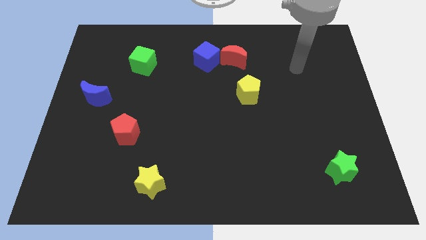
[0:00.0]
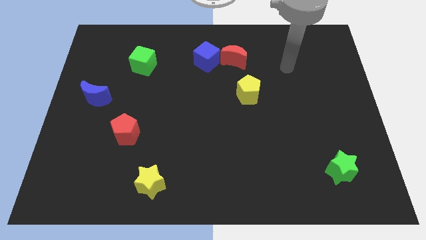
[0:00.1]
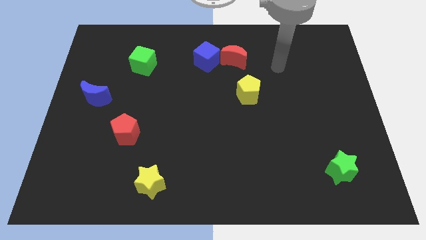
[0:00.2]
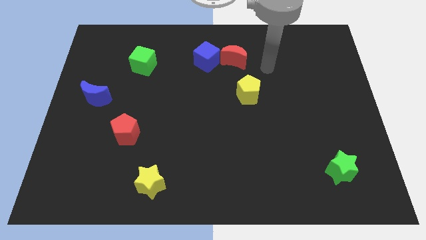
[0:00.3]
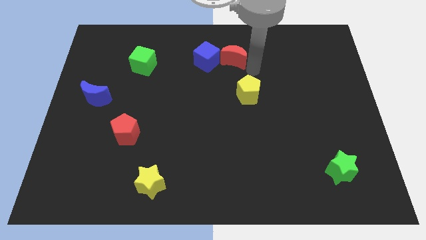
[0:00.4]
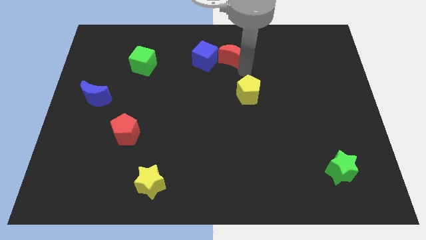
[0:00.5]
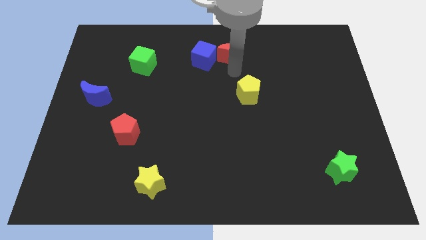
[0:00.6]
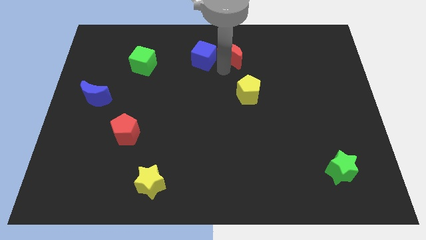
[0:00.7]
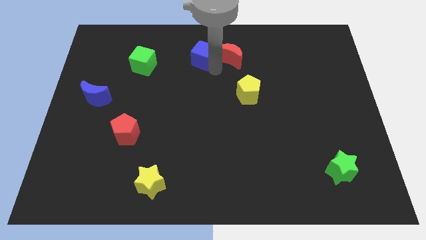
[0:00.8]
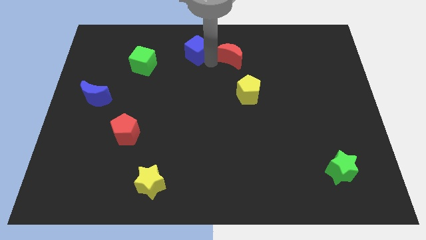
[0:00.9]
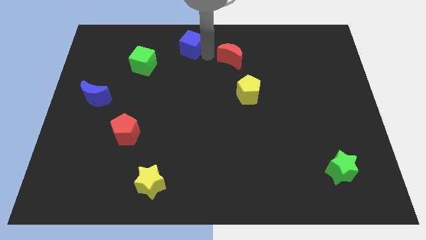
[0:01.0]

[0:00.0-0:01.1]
pull the red moon apart from the blue cube

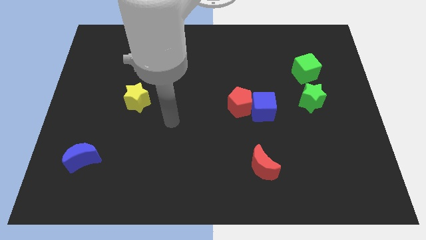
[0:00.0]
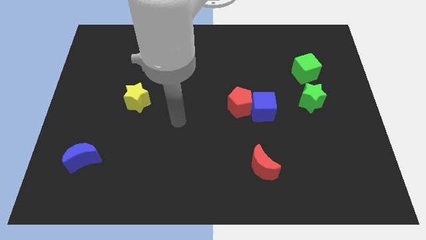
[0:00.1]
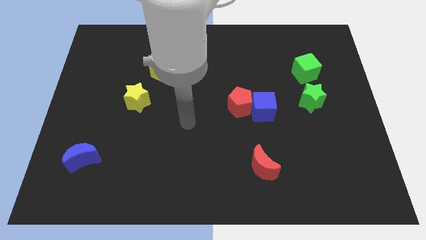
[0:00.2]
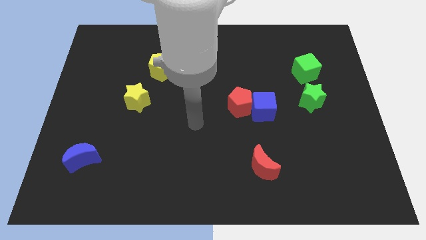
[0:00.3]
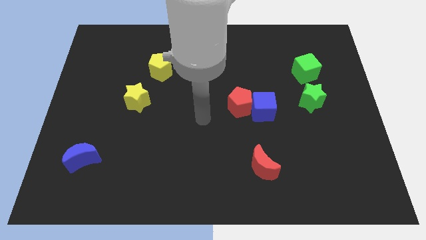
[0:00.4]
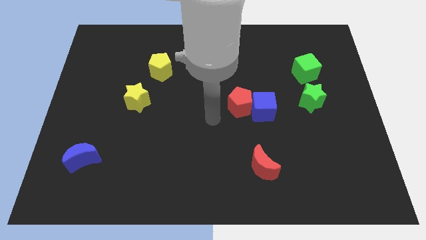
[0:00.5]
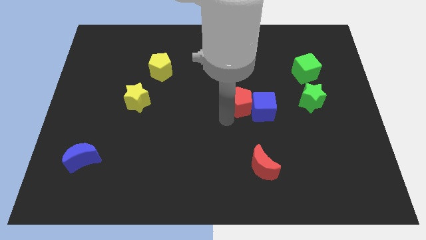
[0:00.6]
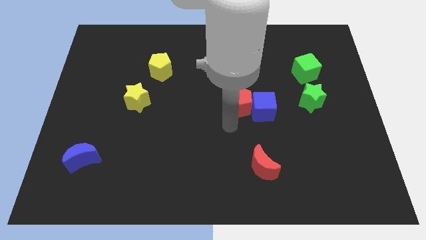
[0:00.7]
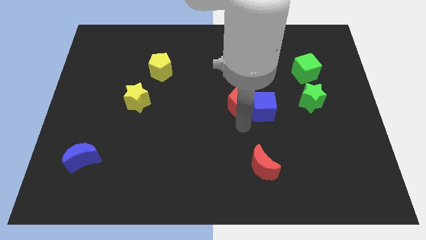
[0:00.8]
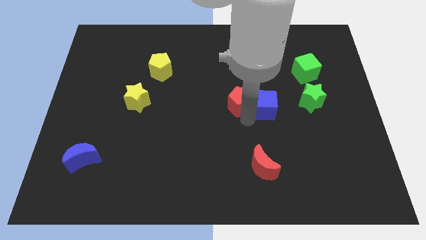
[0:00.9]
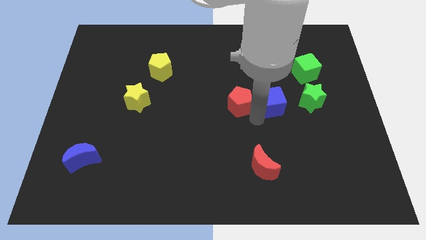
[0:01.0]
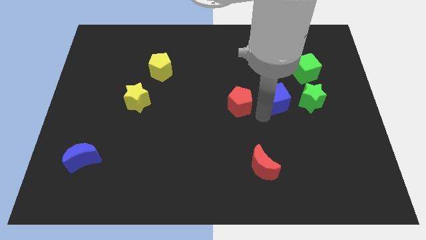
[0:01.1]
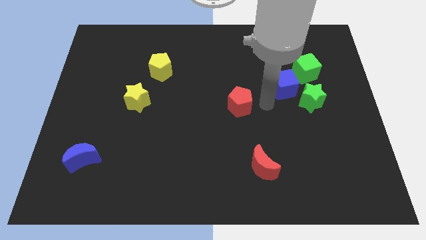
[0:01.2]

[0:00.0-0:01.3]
separate the red pentagon from the blue cube

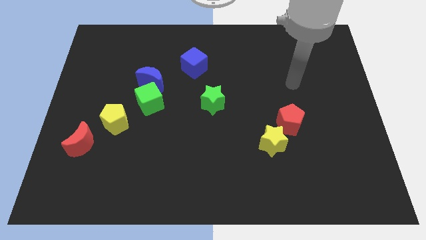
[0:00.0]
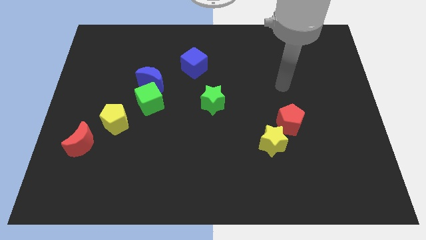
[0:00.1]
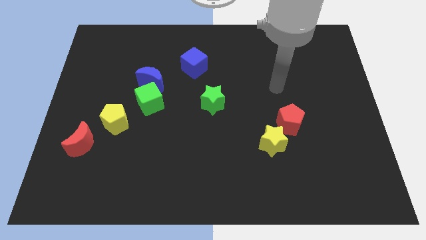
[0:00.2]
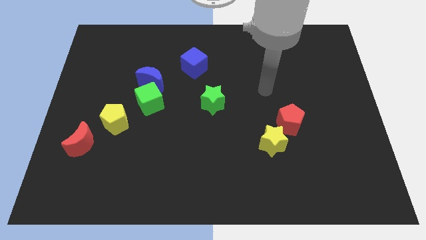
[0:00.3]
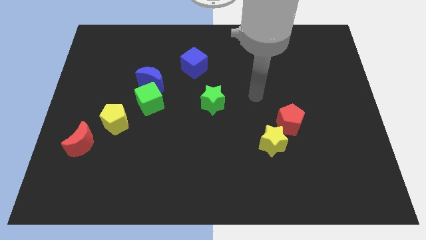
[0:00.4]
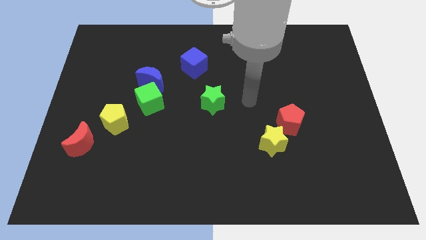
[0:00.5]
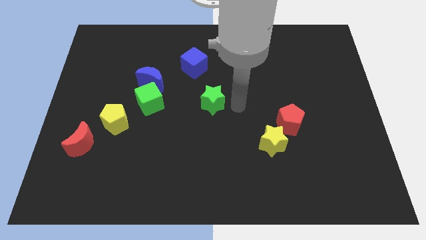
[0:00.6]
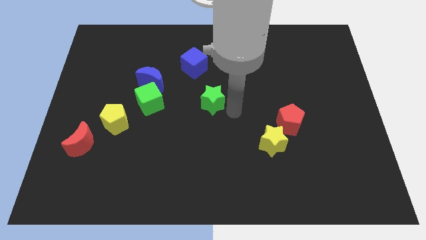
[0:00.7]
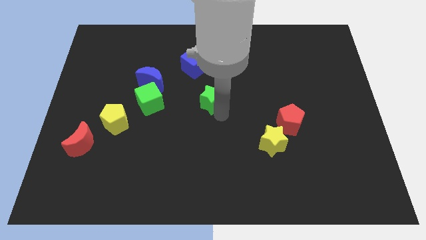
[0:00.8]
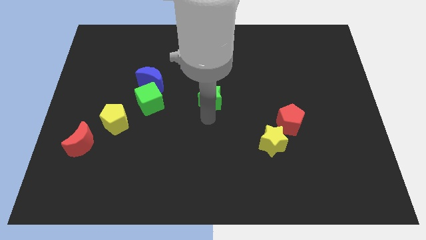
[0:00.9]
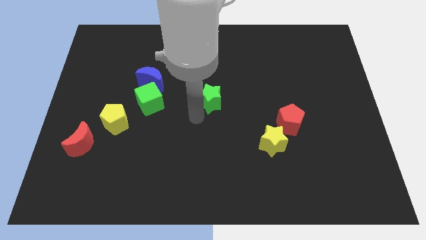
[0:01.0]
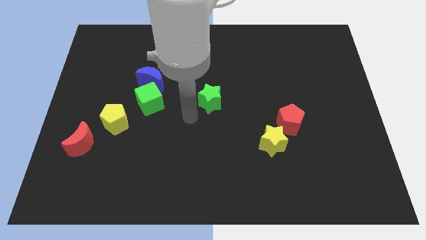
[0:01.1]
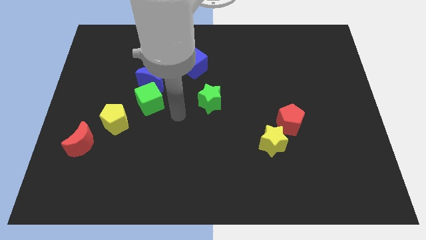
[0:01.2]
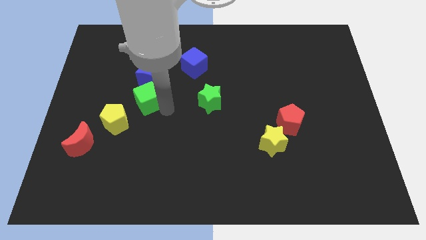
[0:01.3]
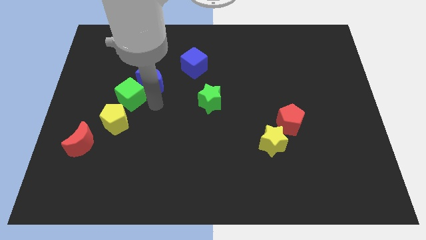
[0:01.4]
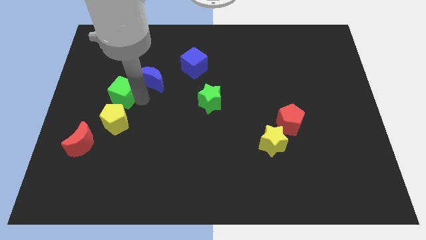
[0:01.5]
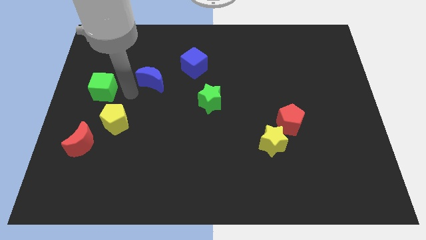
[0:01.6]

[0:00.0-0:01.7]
pull the blue moon apart from the green cube

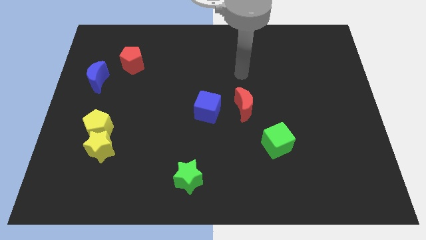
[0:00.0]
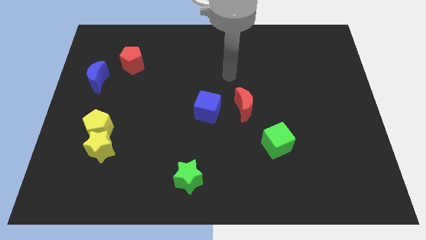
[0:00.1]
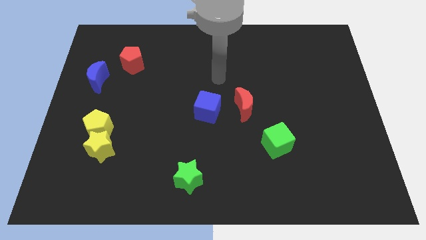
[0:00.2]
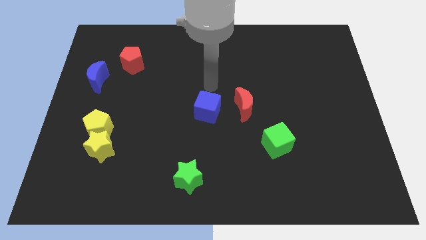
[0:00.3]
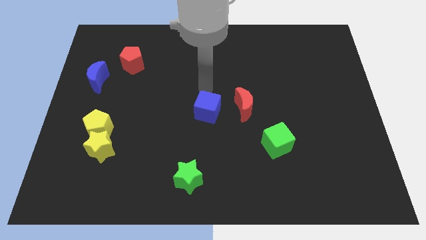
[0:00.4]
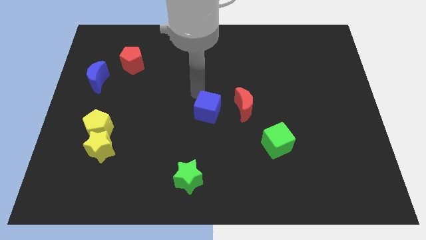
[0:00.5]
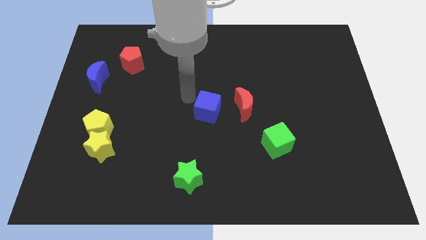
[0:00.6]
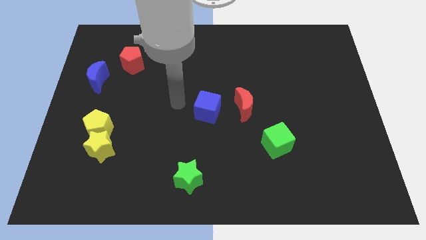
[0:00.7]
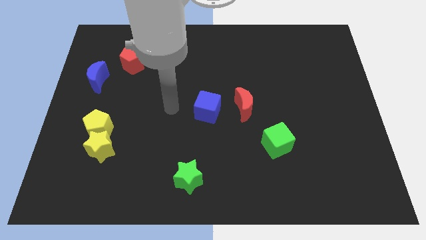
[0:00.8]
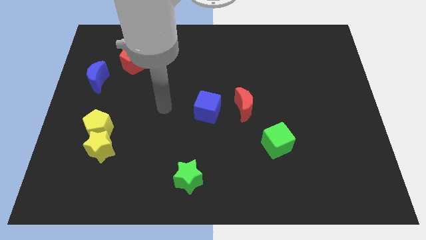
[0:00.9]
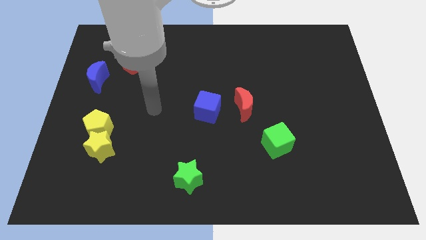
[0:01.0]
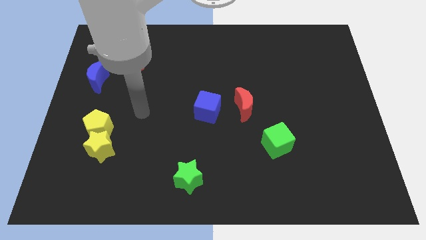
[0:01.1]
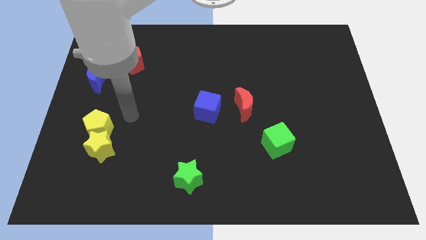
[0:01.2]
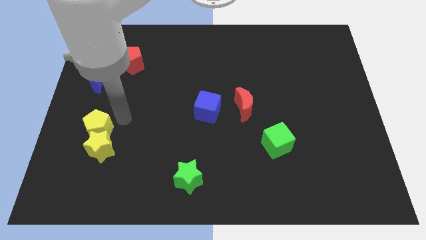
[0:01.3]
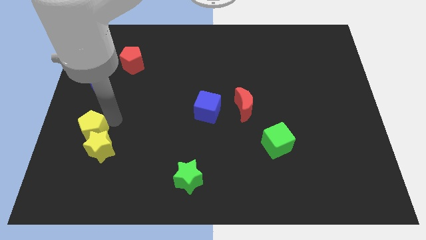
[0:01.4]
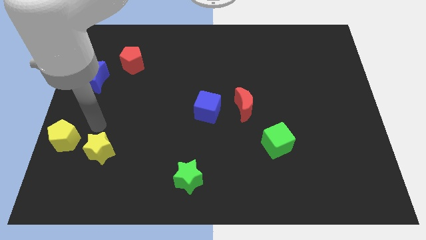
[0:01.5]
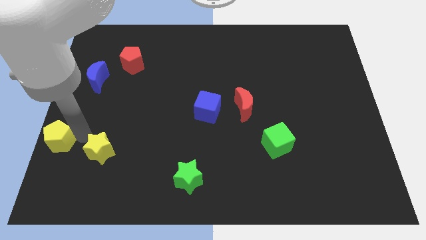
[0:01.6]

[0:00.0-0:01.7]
pull the yellow star apart from the yellow pentagon

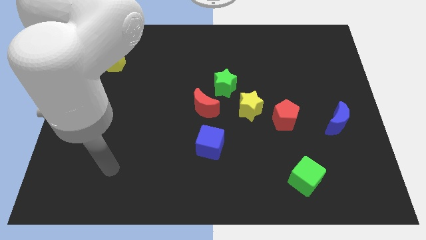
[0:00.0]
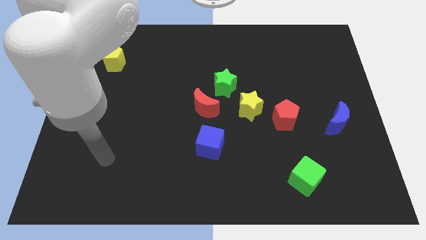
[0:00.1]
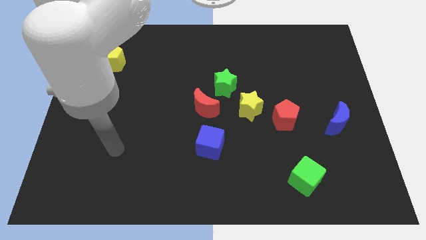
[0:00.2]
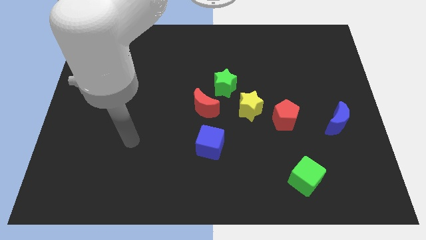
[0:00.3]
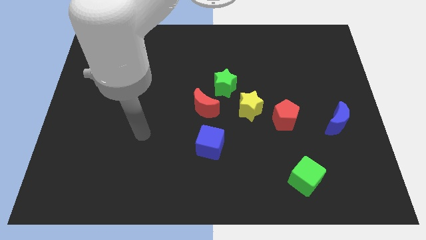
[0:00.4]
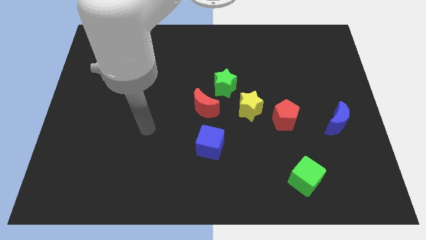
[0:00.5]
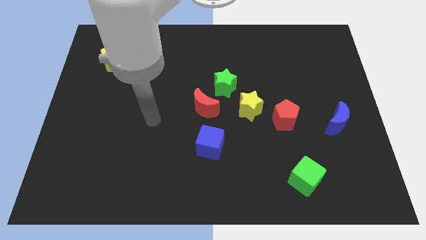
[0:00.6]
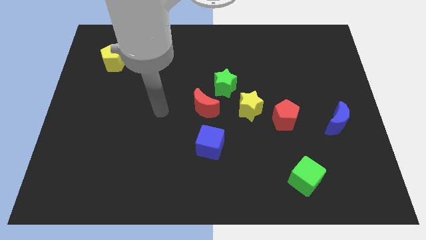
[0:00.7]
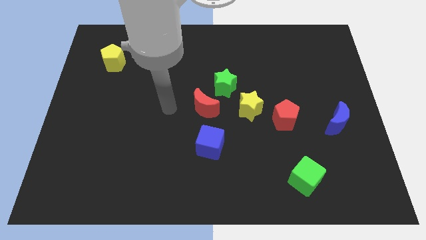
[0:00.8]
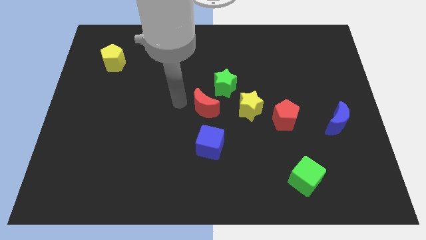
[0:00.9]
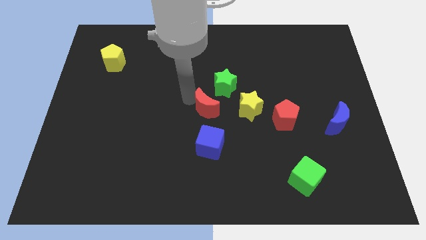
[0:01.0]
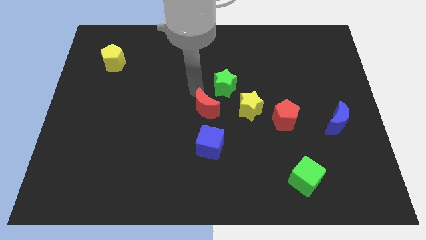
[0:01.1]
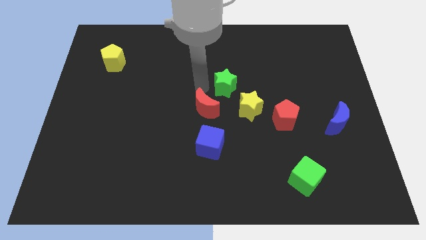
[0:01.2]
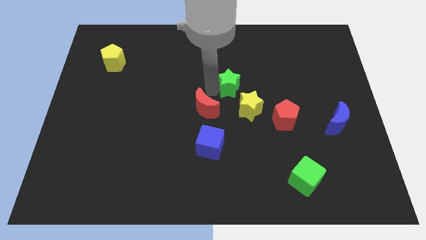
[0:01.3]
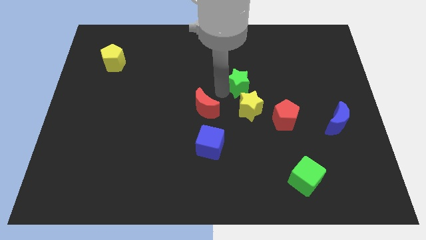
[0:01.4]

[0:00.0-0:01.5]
separate the red moon from the green star

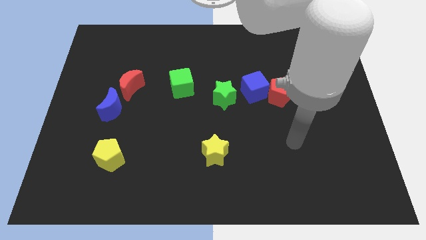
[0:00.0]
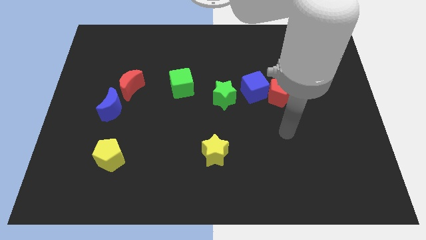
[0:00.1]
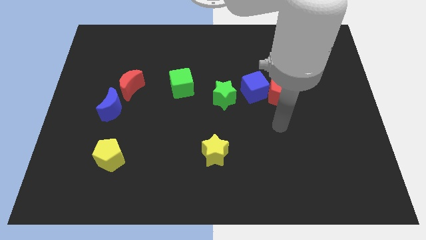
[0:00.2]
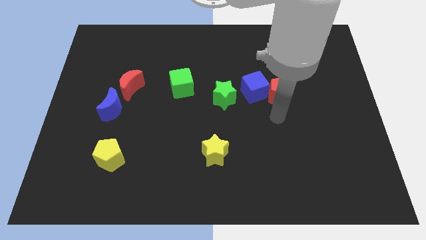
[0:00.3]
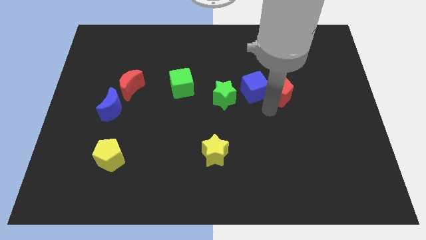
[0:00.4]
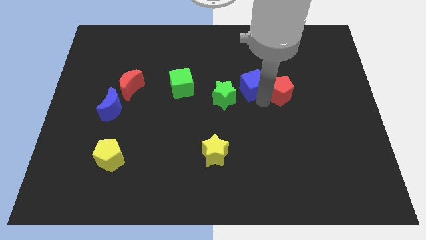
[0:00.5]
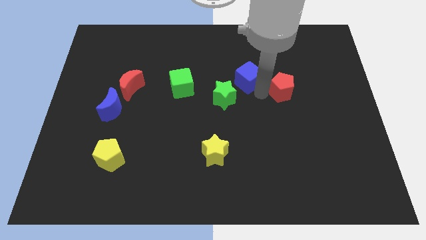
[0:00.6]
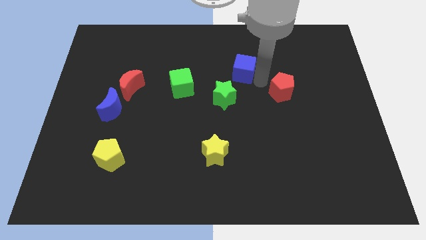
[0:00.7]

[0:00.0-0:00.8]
move the red pentagon away from the blue cube

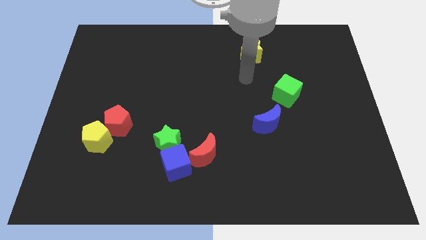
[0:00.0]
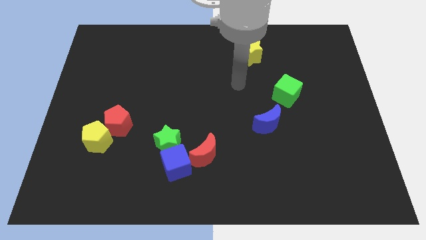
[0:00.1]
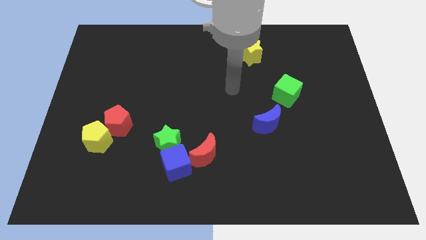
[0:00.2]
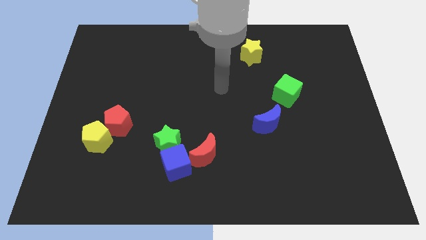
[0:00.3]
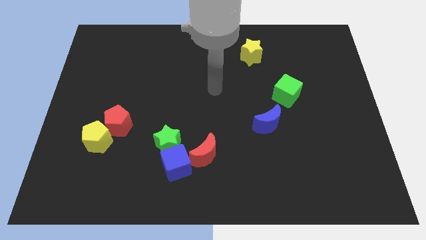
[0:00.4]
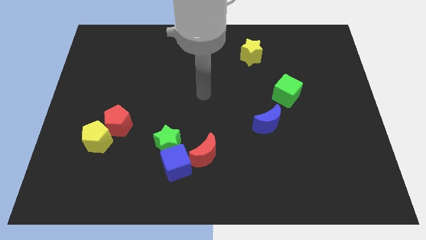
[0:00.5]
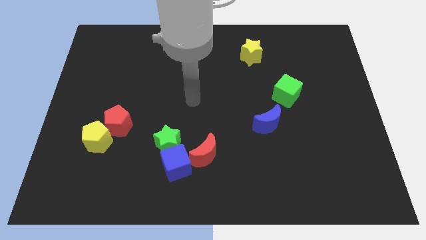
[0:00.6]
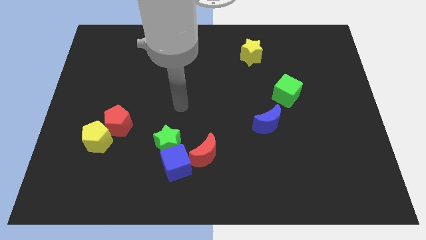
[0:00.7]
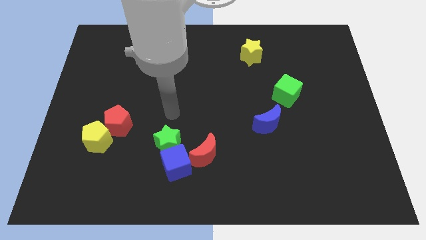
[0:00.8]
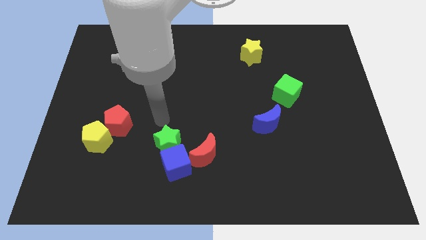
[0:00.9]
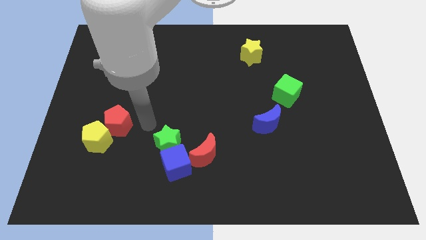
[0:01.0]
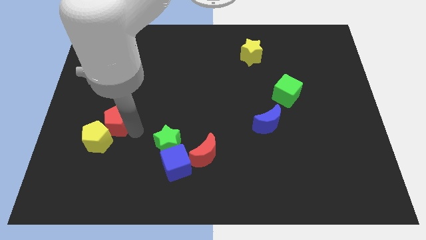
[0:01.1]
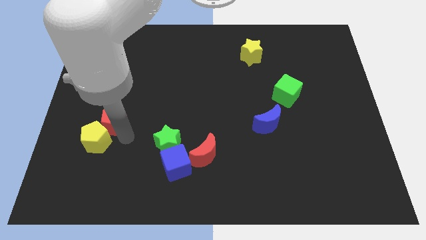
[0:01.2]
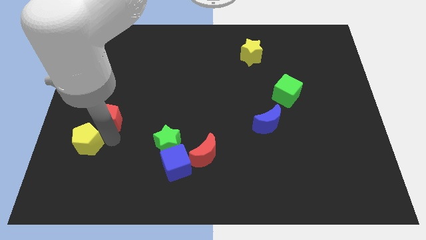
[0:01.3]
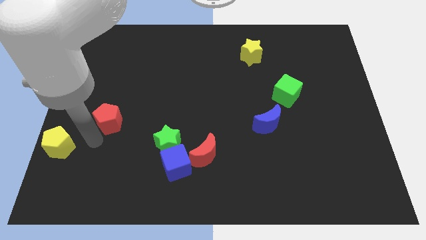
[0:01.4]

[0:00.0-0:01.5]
separate the red pentagon from the yellow pentagon
